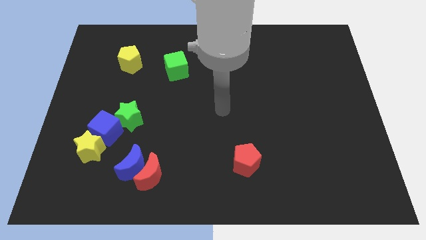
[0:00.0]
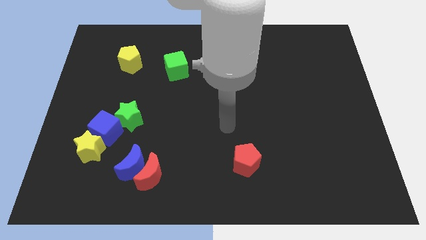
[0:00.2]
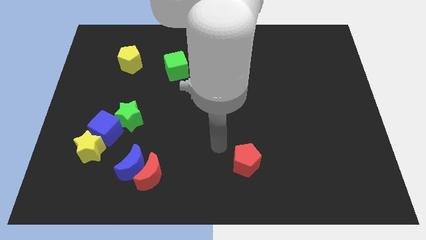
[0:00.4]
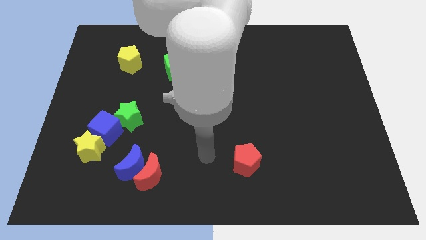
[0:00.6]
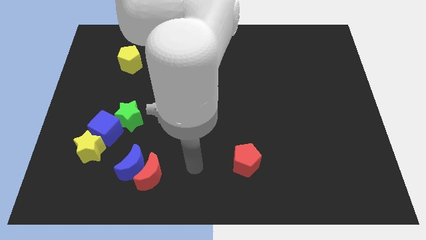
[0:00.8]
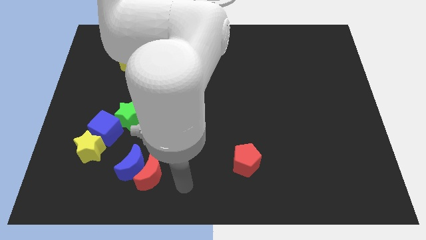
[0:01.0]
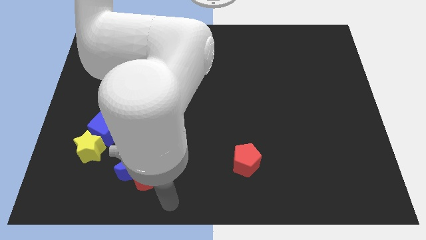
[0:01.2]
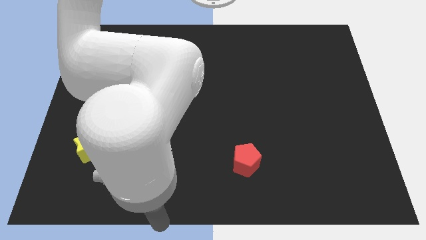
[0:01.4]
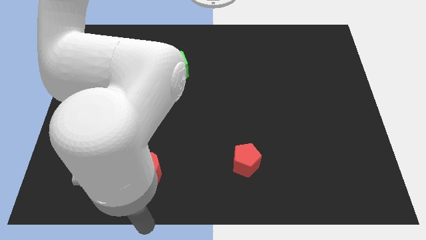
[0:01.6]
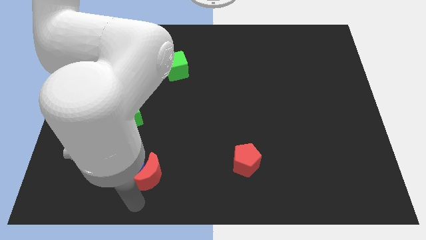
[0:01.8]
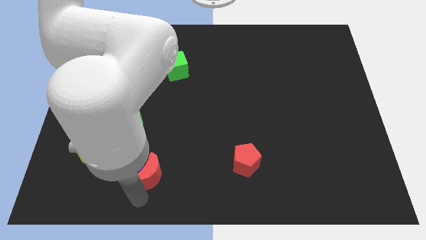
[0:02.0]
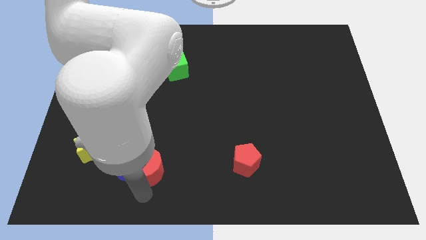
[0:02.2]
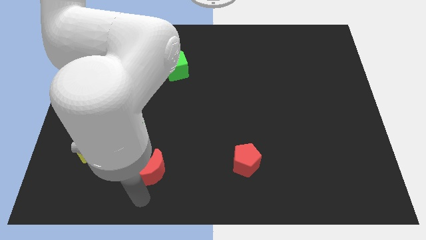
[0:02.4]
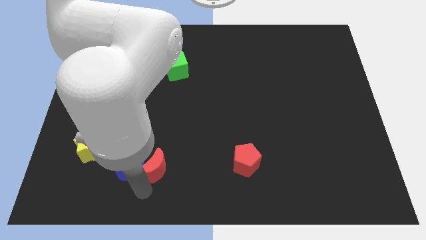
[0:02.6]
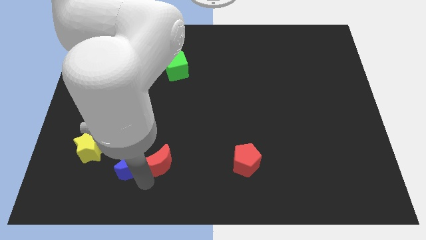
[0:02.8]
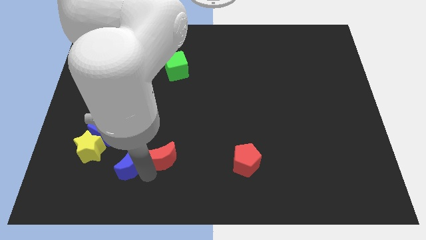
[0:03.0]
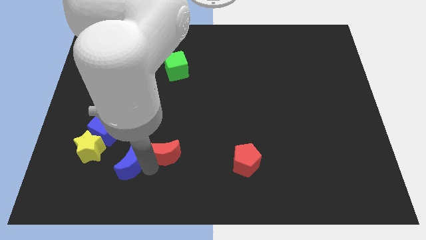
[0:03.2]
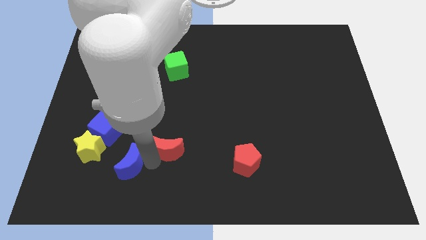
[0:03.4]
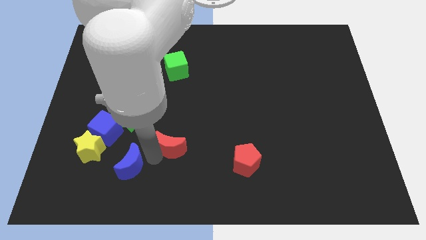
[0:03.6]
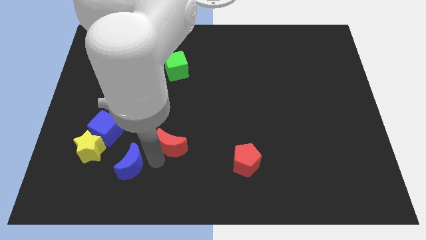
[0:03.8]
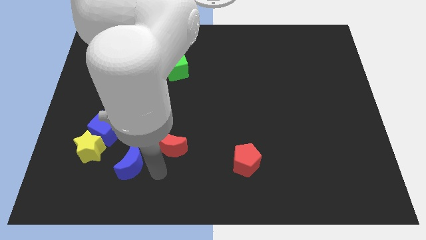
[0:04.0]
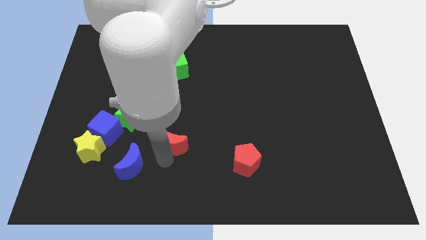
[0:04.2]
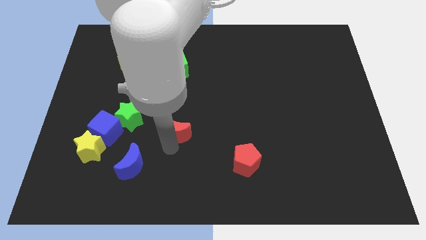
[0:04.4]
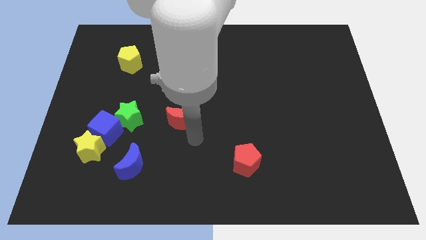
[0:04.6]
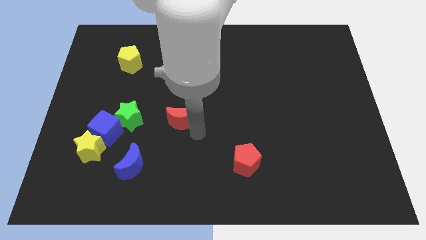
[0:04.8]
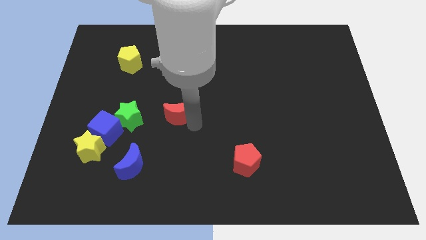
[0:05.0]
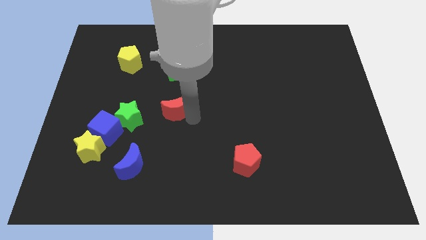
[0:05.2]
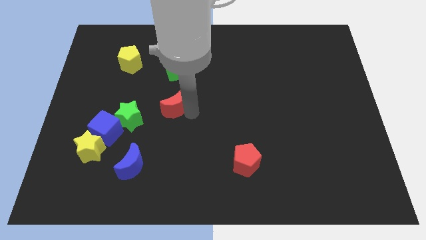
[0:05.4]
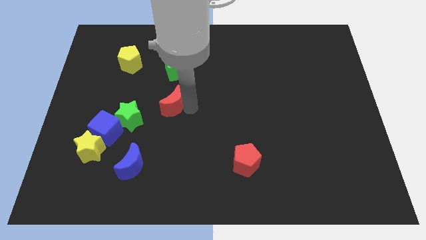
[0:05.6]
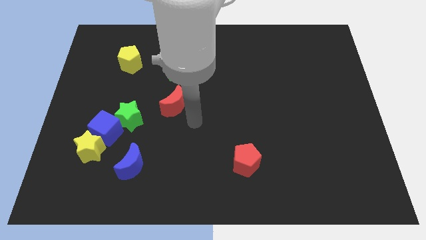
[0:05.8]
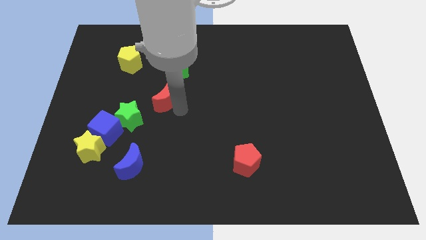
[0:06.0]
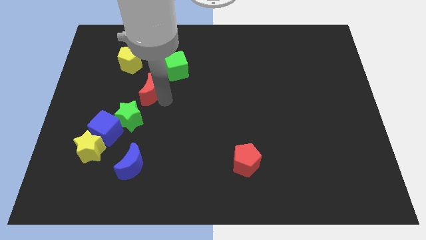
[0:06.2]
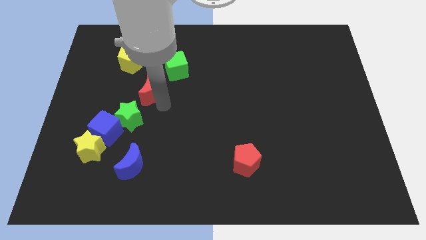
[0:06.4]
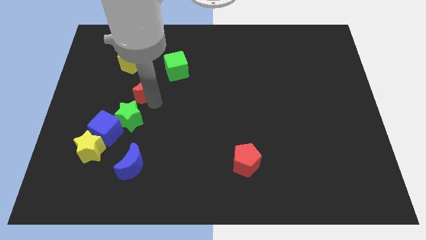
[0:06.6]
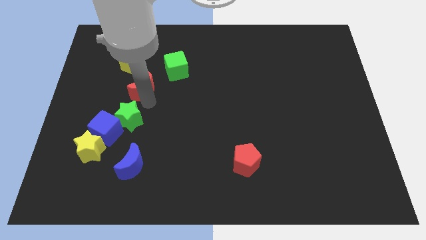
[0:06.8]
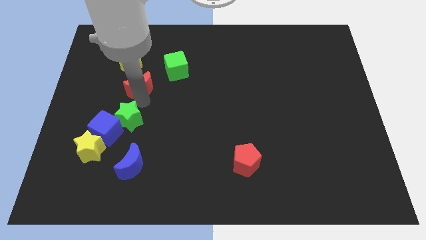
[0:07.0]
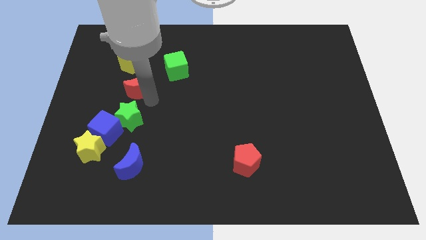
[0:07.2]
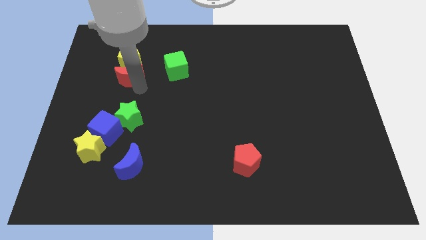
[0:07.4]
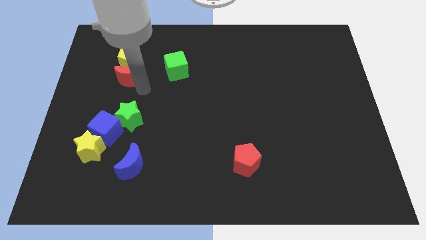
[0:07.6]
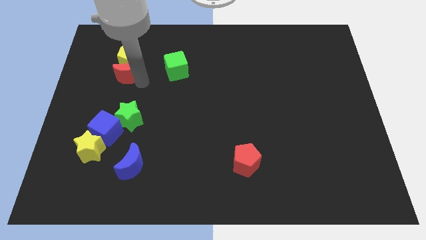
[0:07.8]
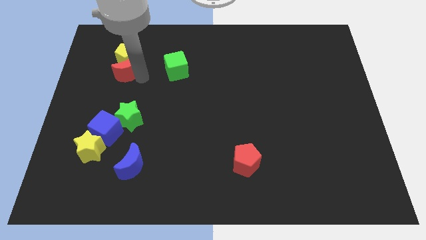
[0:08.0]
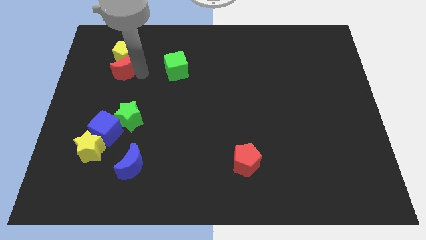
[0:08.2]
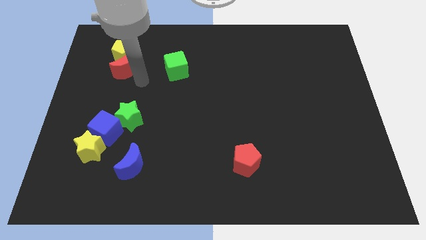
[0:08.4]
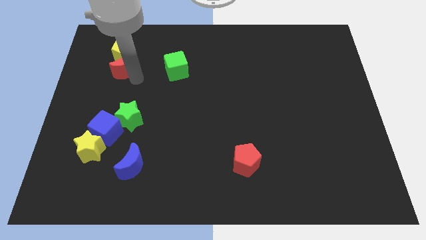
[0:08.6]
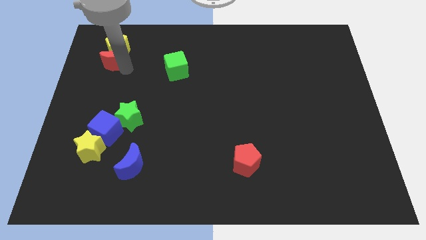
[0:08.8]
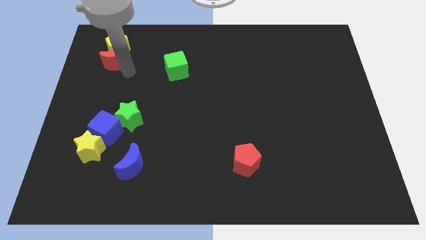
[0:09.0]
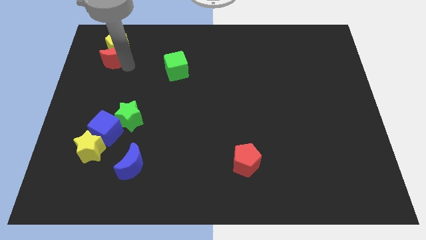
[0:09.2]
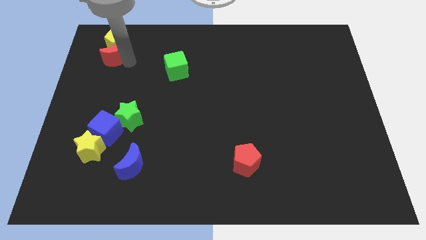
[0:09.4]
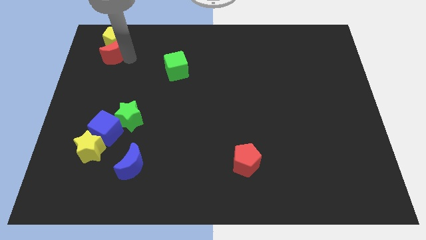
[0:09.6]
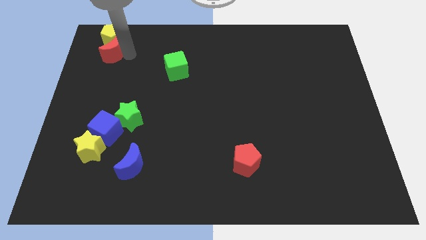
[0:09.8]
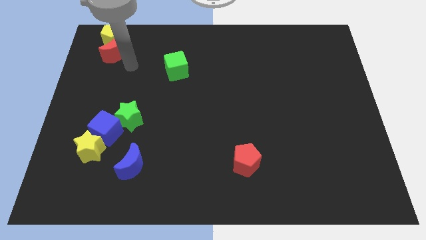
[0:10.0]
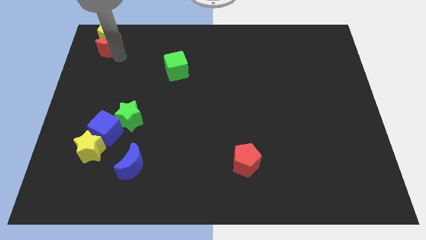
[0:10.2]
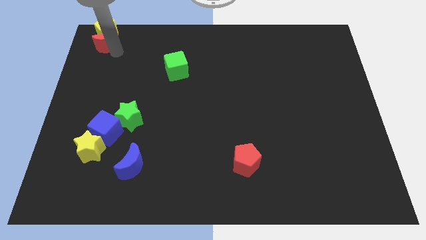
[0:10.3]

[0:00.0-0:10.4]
slide the red moon to the upper left corner
